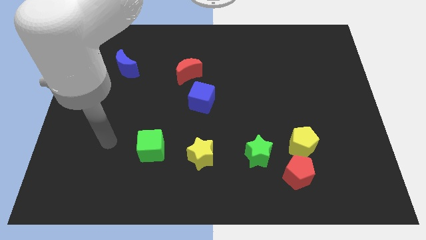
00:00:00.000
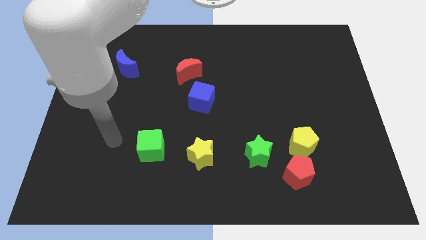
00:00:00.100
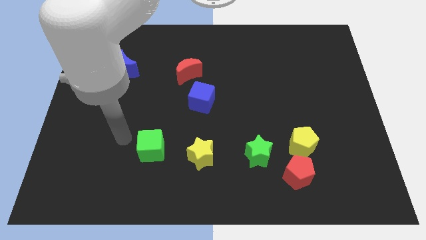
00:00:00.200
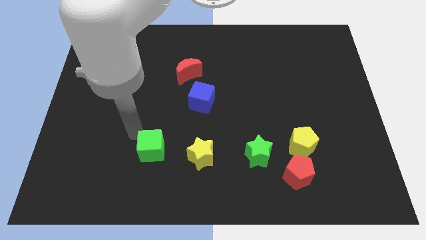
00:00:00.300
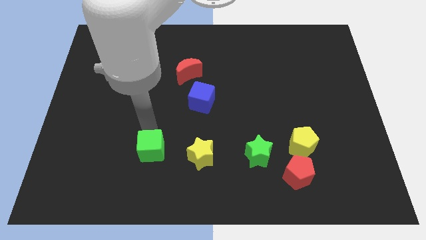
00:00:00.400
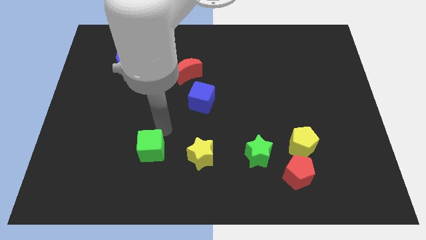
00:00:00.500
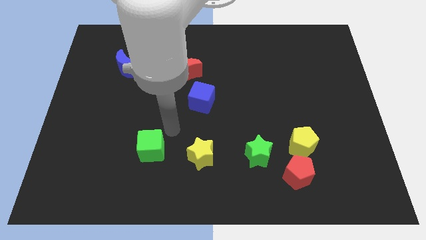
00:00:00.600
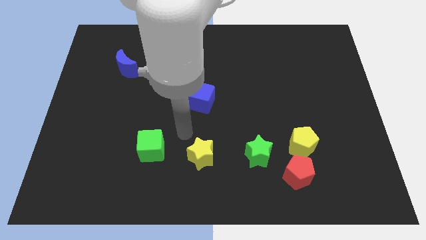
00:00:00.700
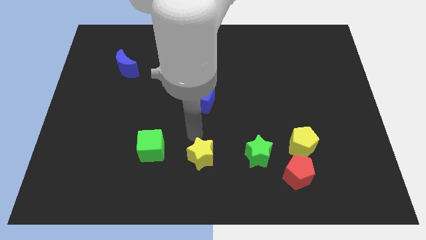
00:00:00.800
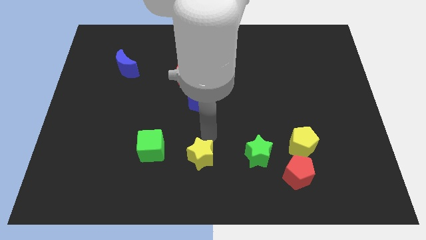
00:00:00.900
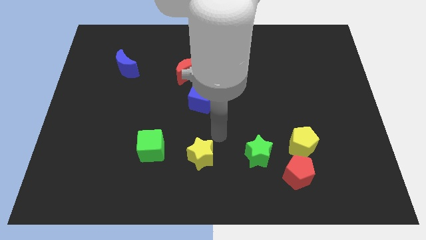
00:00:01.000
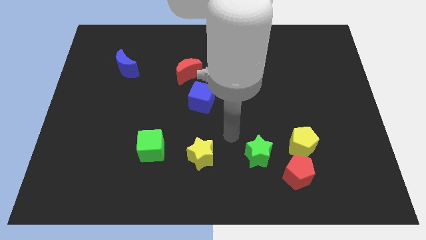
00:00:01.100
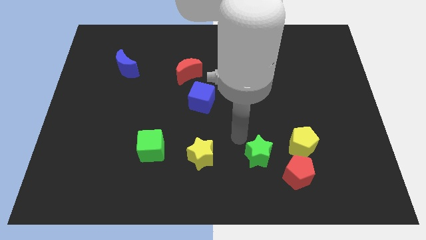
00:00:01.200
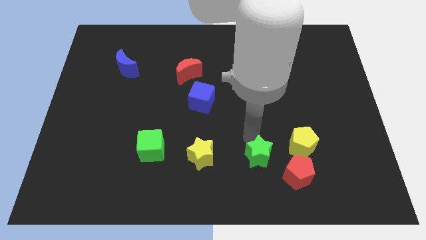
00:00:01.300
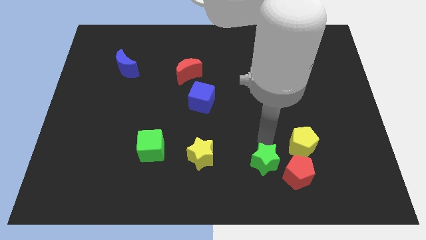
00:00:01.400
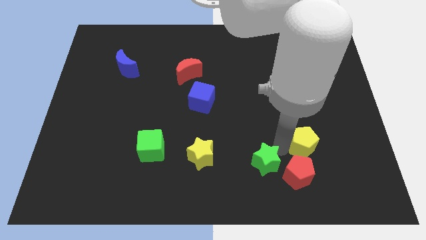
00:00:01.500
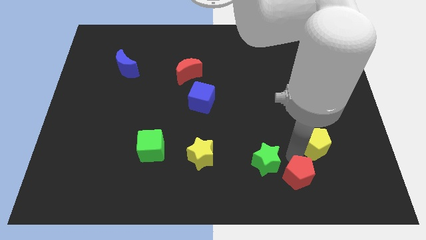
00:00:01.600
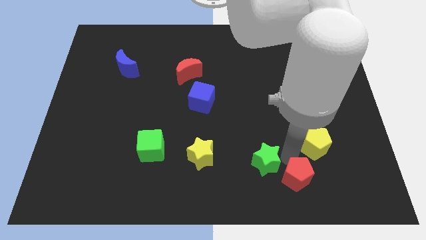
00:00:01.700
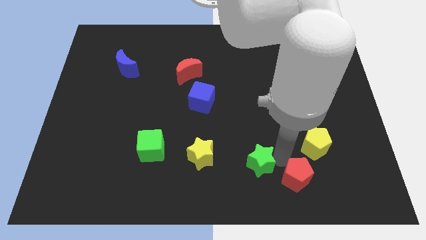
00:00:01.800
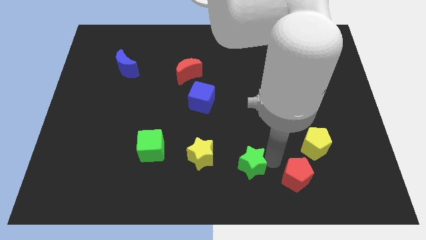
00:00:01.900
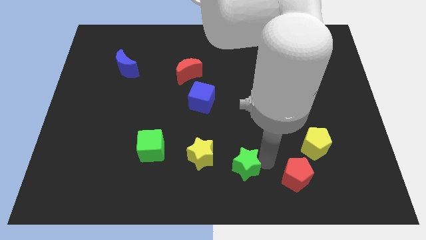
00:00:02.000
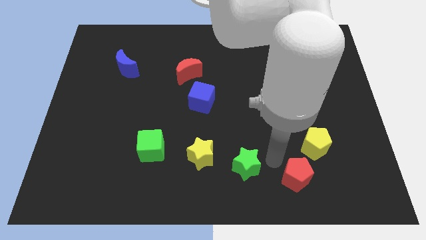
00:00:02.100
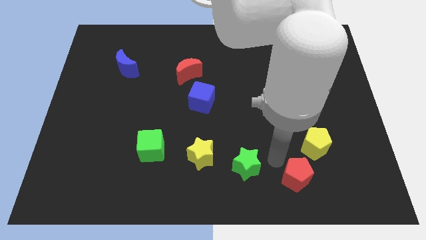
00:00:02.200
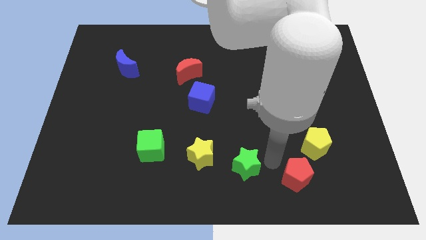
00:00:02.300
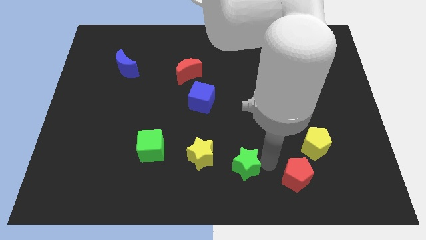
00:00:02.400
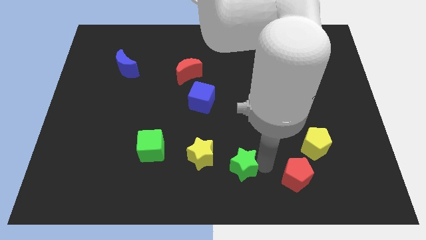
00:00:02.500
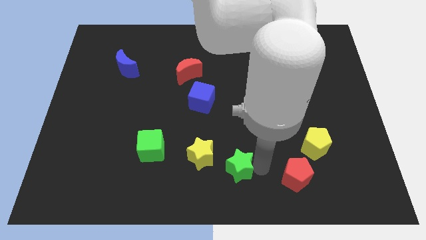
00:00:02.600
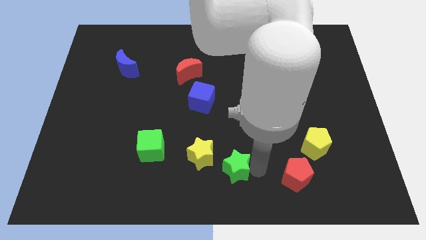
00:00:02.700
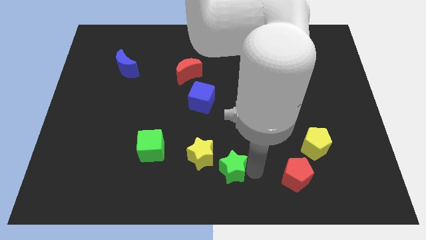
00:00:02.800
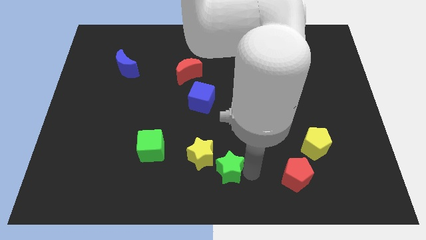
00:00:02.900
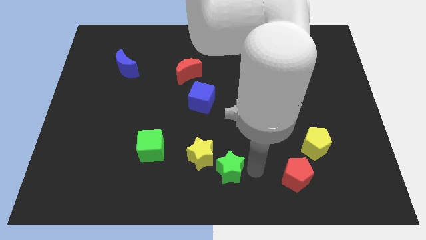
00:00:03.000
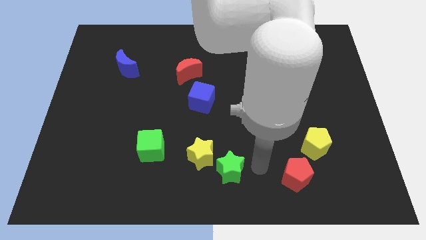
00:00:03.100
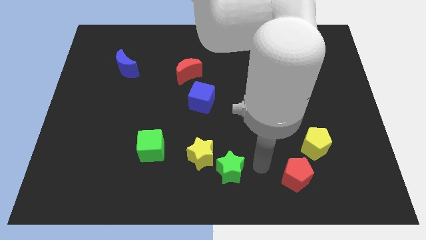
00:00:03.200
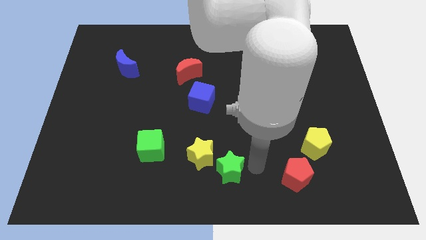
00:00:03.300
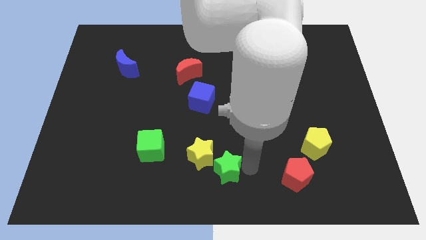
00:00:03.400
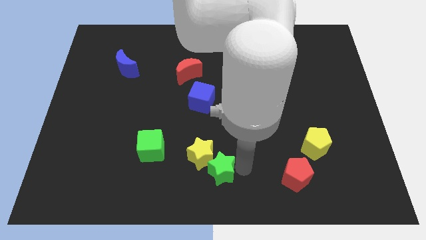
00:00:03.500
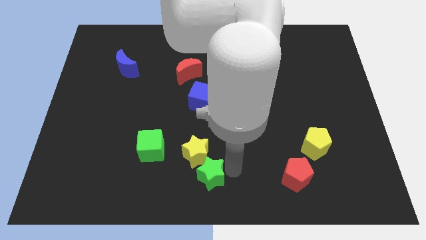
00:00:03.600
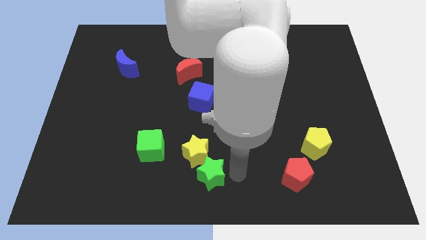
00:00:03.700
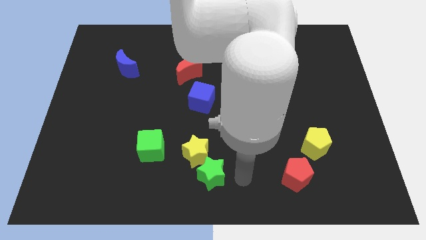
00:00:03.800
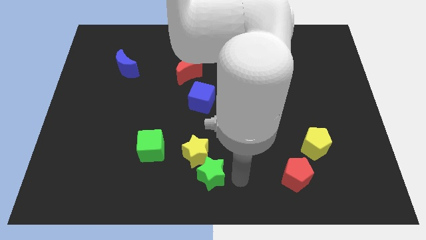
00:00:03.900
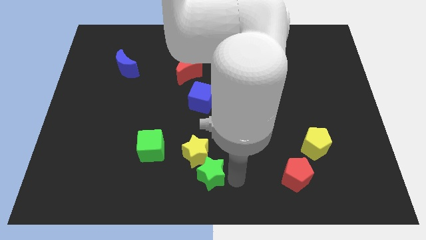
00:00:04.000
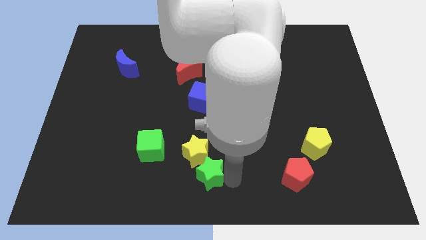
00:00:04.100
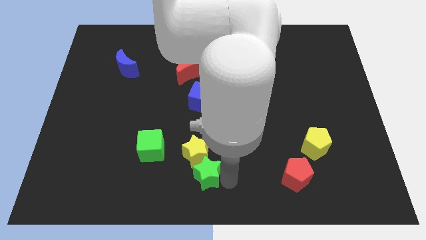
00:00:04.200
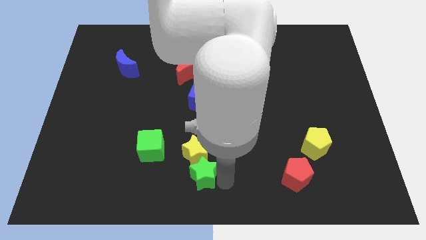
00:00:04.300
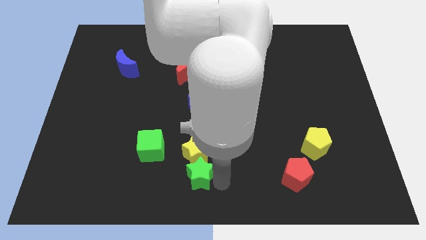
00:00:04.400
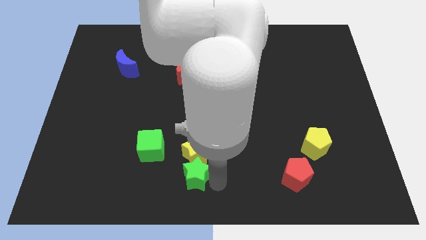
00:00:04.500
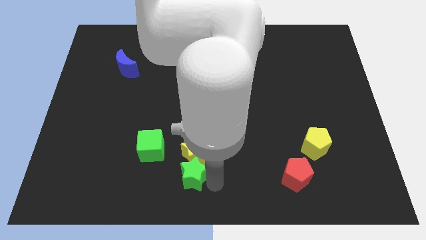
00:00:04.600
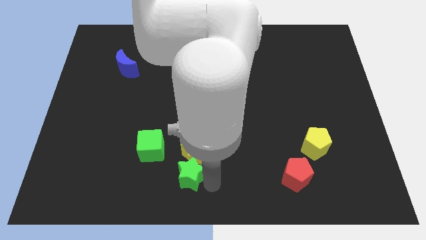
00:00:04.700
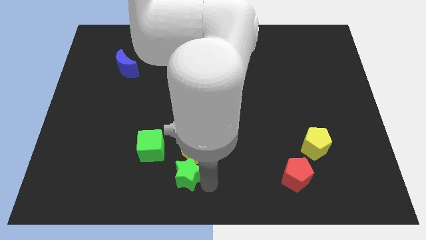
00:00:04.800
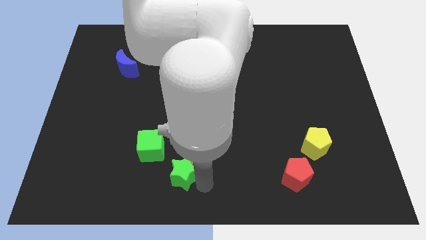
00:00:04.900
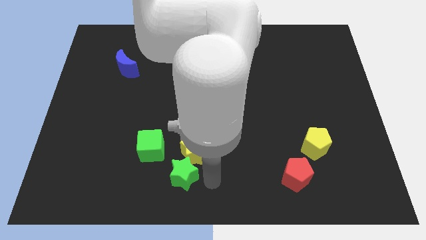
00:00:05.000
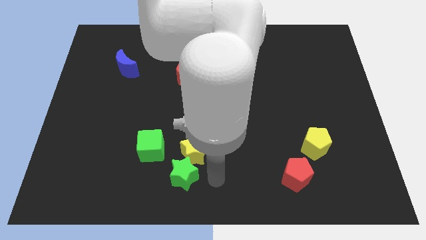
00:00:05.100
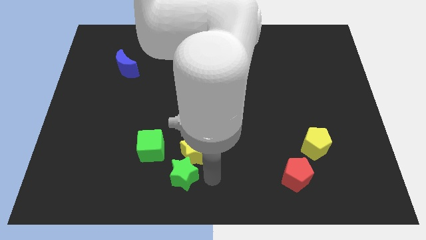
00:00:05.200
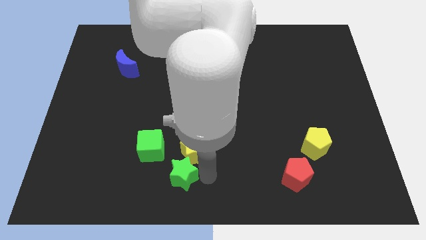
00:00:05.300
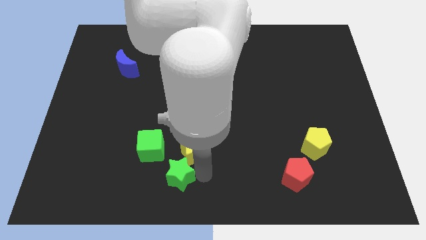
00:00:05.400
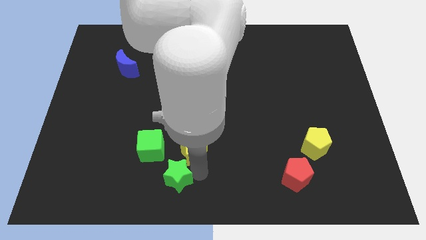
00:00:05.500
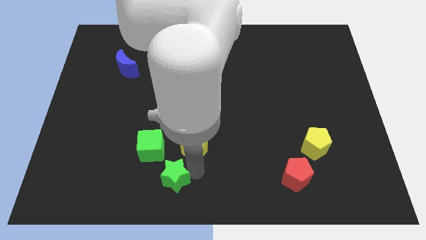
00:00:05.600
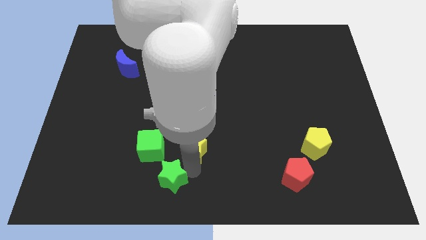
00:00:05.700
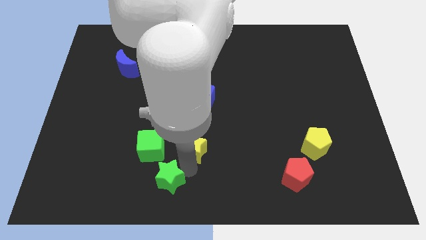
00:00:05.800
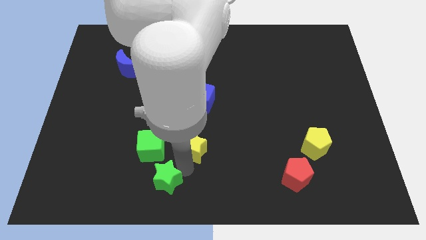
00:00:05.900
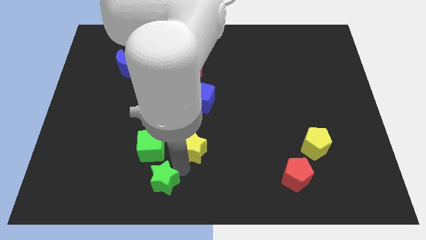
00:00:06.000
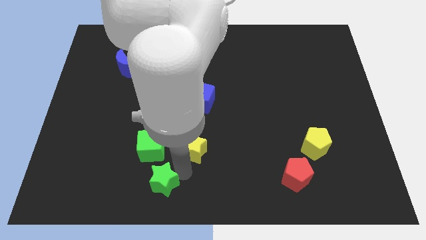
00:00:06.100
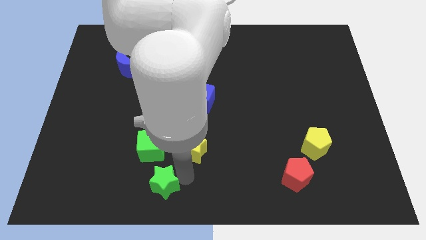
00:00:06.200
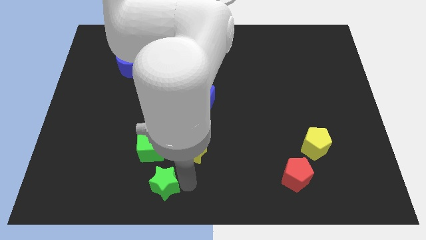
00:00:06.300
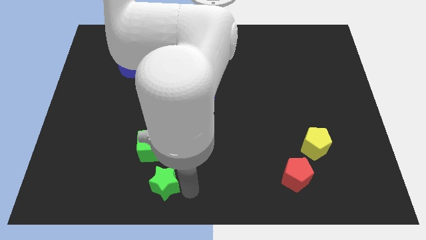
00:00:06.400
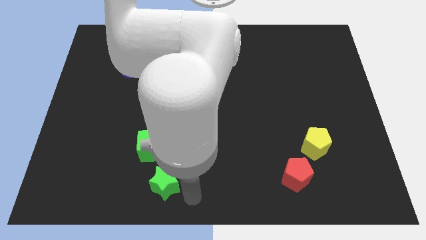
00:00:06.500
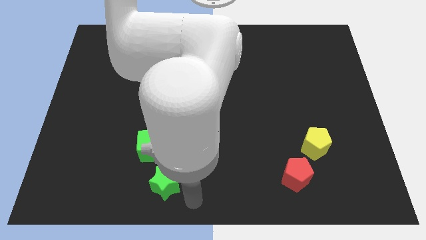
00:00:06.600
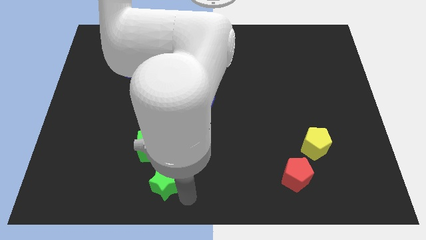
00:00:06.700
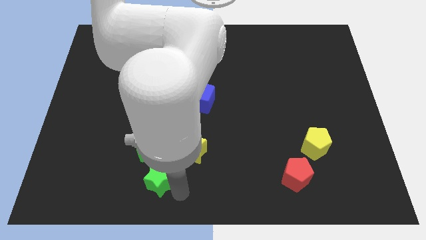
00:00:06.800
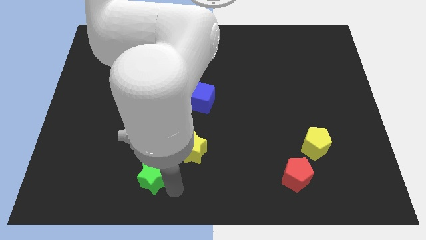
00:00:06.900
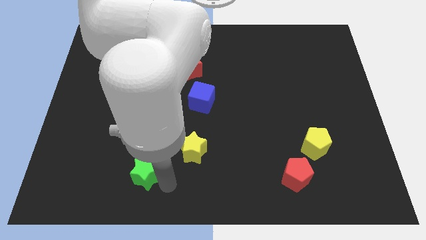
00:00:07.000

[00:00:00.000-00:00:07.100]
push the green star diagonally down and to the left of the green cube
